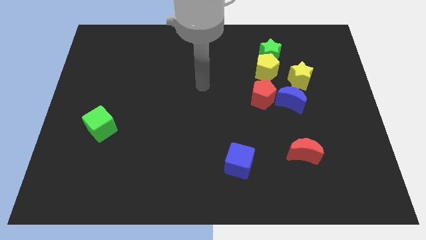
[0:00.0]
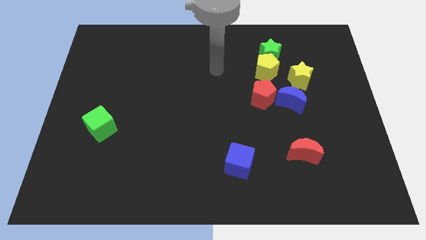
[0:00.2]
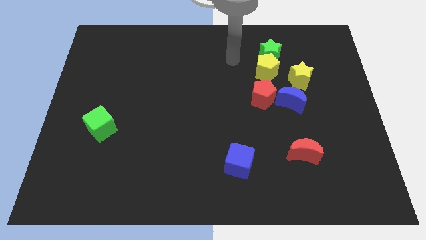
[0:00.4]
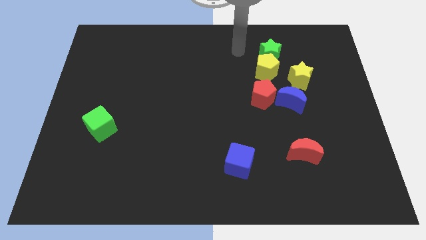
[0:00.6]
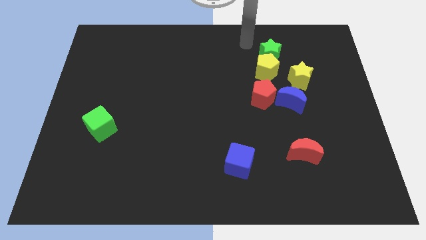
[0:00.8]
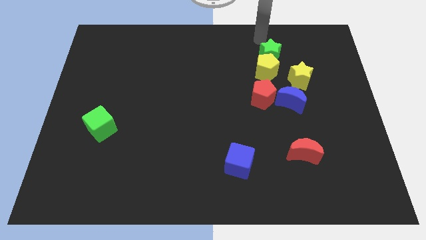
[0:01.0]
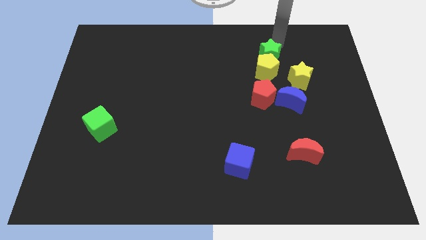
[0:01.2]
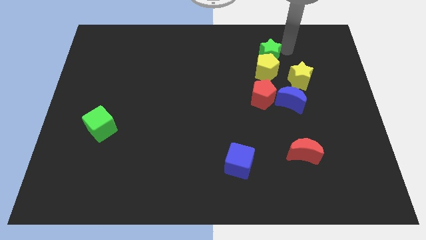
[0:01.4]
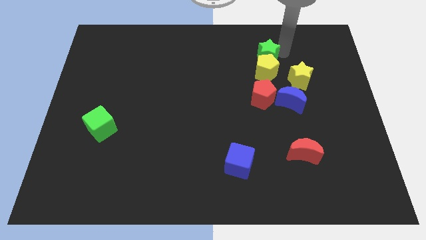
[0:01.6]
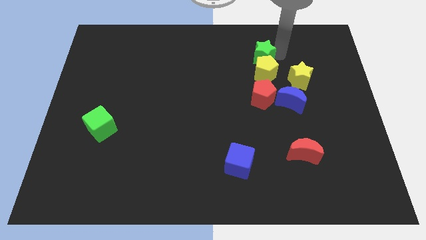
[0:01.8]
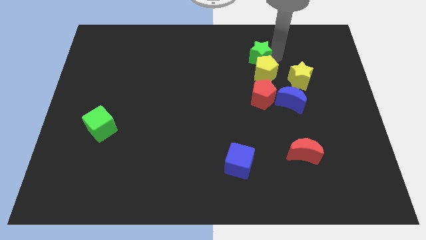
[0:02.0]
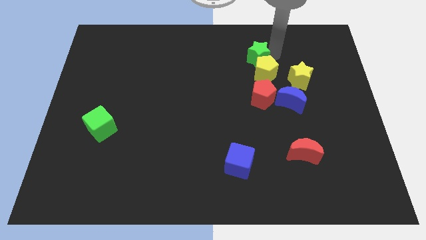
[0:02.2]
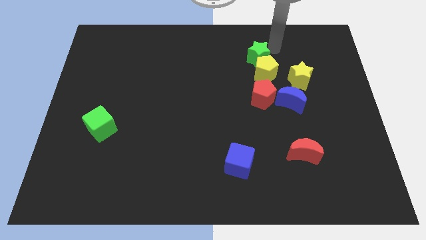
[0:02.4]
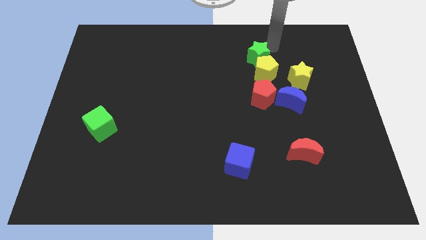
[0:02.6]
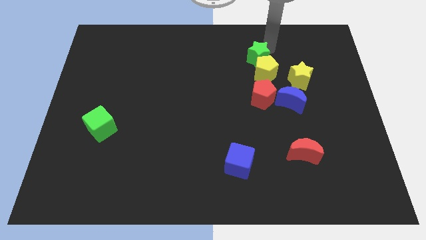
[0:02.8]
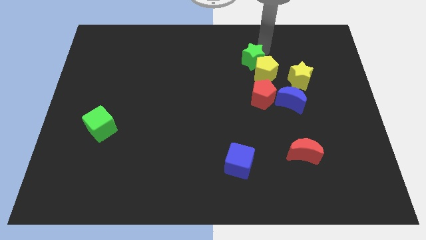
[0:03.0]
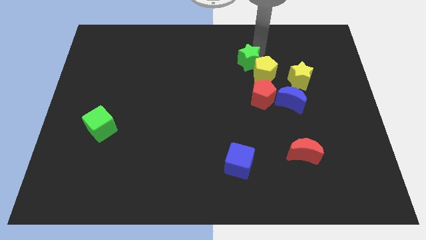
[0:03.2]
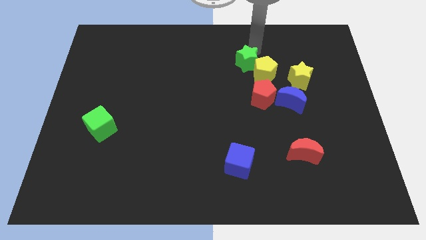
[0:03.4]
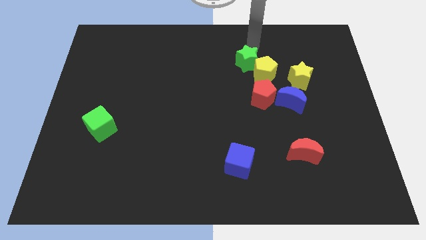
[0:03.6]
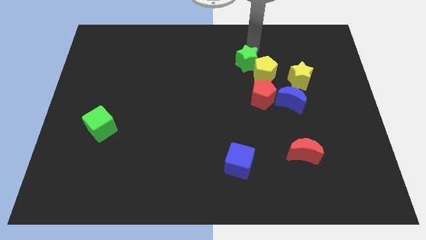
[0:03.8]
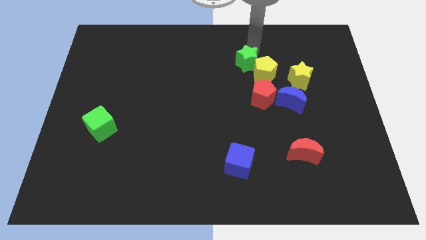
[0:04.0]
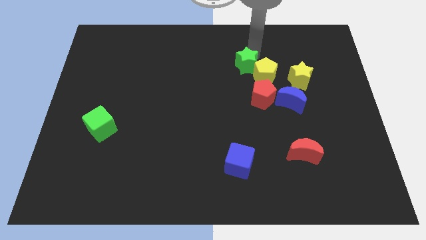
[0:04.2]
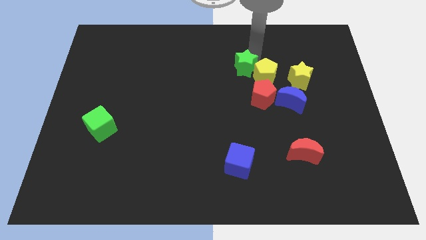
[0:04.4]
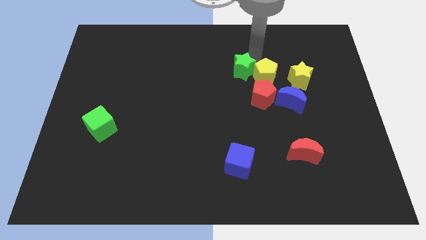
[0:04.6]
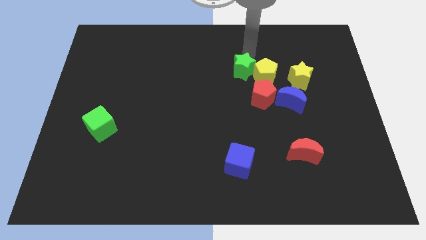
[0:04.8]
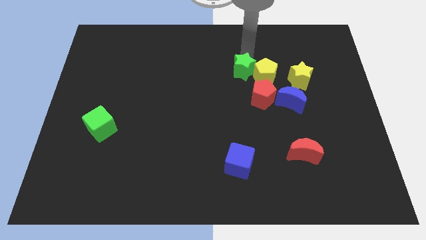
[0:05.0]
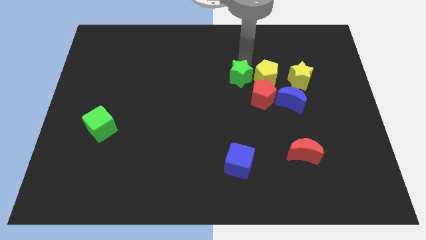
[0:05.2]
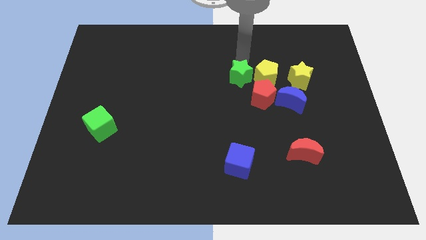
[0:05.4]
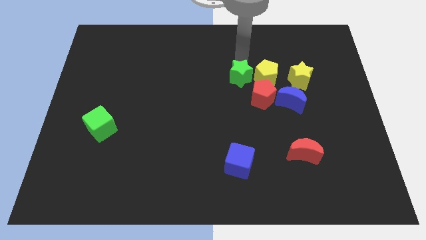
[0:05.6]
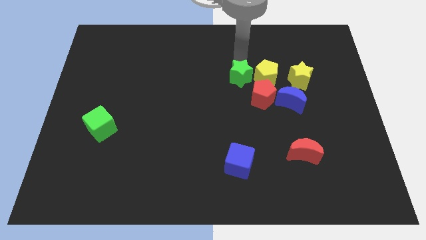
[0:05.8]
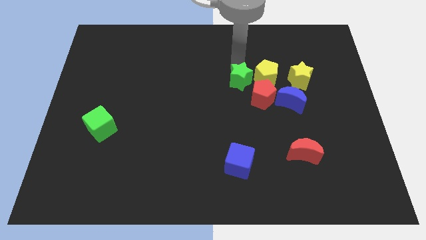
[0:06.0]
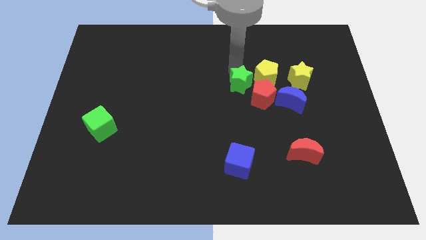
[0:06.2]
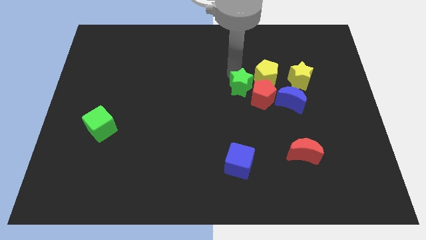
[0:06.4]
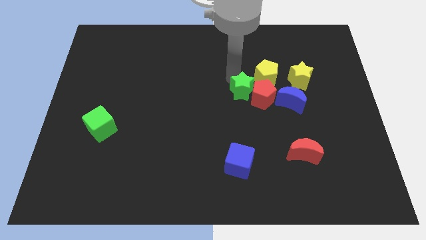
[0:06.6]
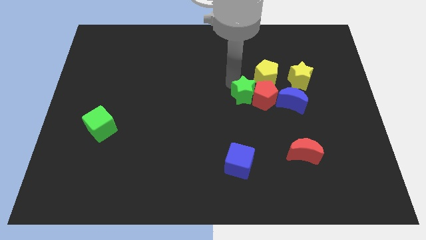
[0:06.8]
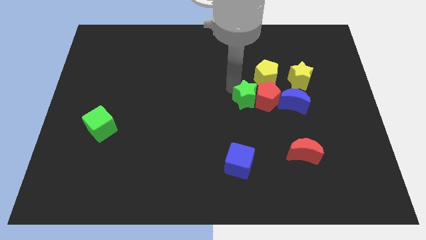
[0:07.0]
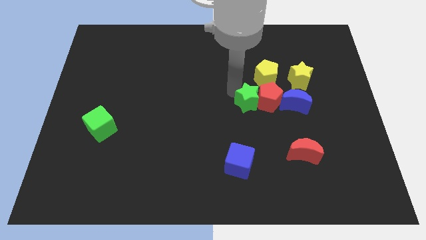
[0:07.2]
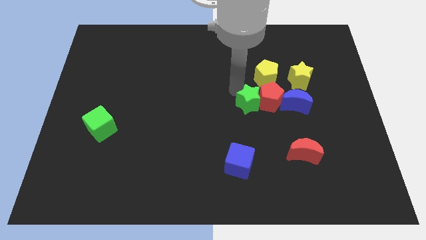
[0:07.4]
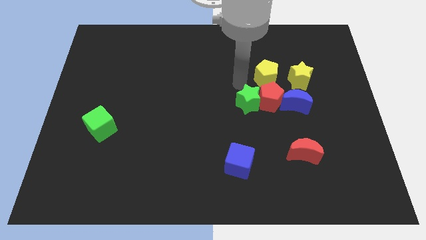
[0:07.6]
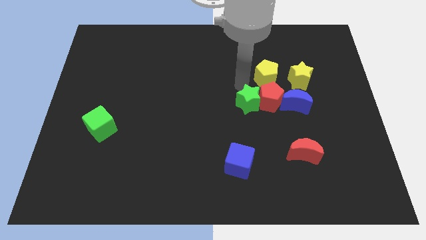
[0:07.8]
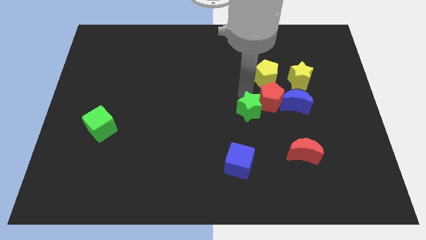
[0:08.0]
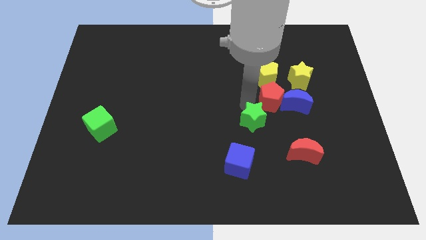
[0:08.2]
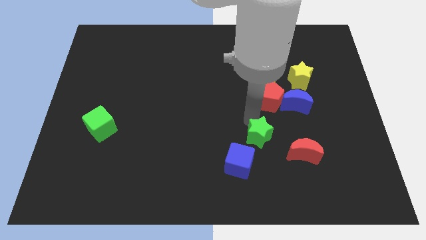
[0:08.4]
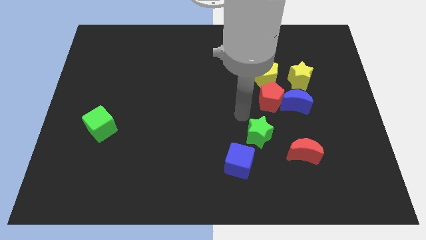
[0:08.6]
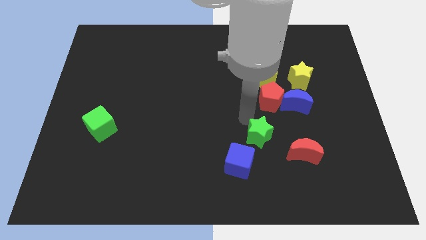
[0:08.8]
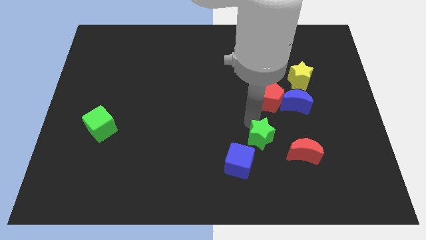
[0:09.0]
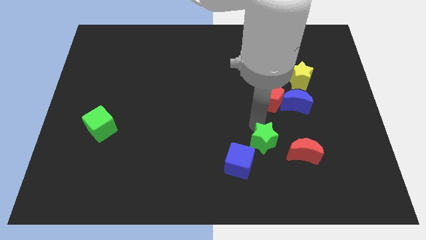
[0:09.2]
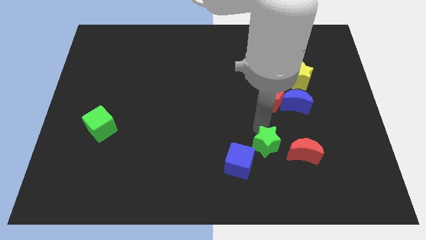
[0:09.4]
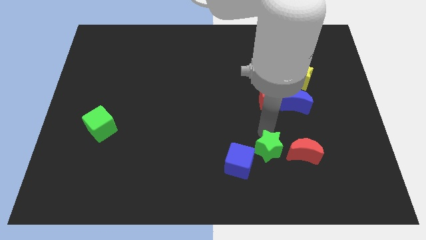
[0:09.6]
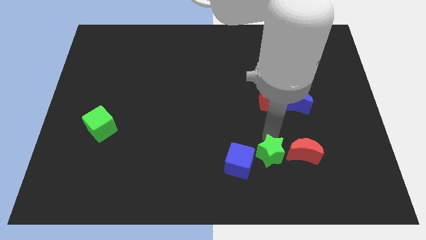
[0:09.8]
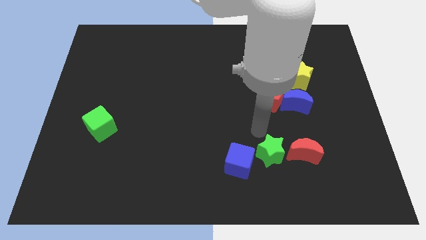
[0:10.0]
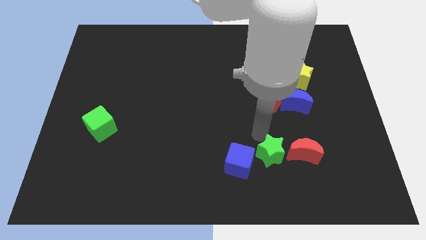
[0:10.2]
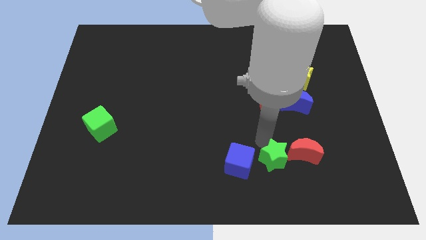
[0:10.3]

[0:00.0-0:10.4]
move the green star to the bottom left of the red moon

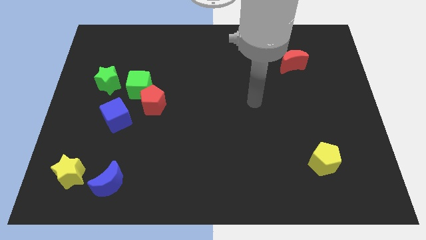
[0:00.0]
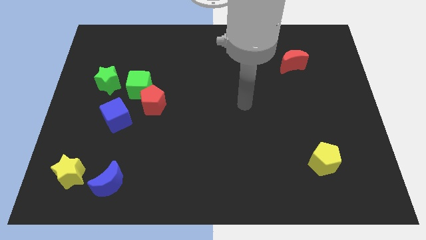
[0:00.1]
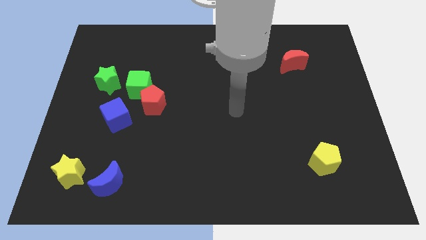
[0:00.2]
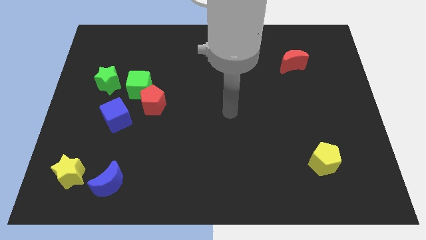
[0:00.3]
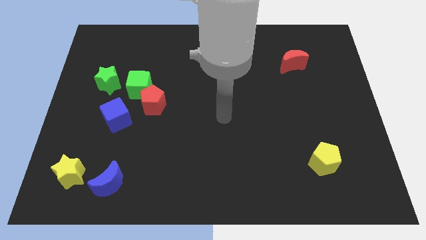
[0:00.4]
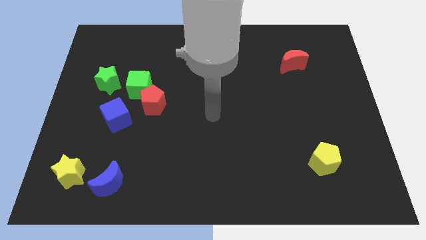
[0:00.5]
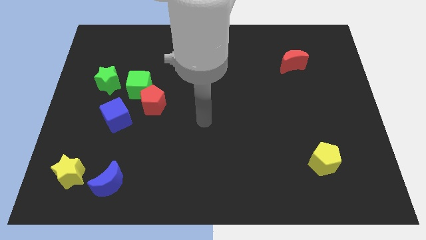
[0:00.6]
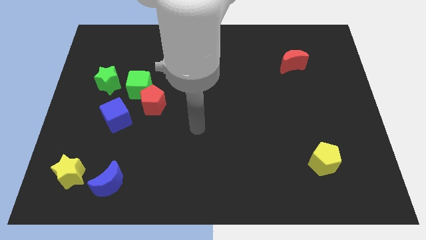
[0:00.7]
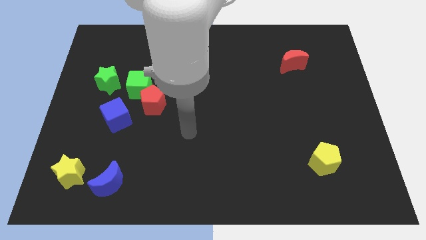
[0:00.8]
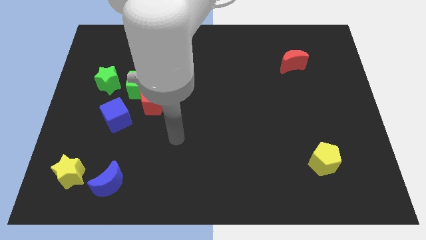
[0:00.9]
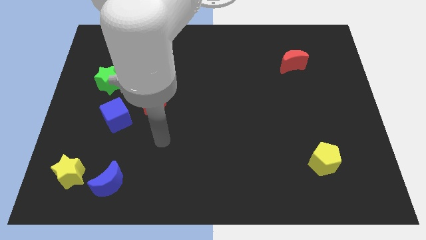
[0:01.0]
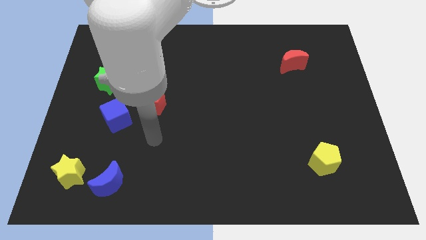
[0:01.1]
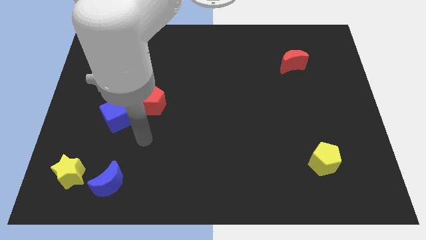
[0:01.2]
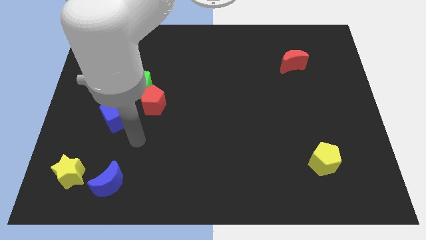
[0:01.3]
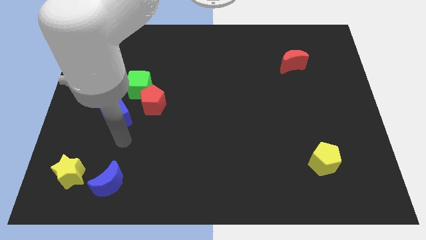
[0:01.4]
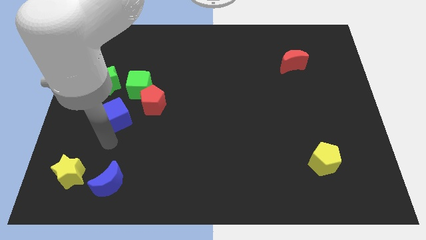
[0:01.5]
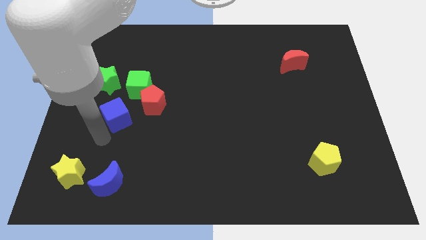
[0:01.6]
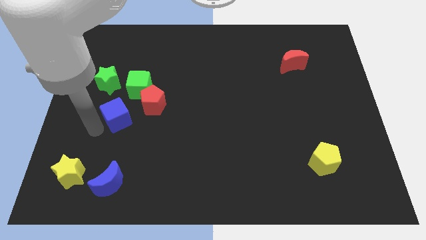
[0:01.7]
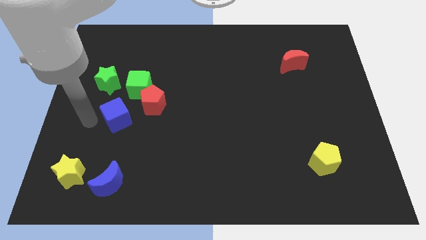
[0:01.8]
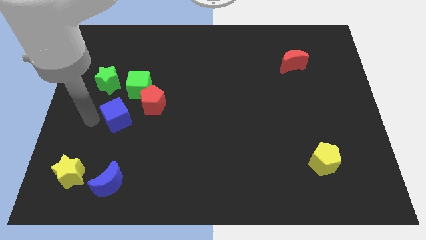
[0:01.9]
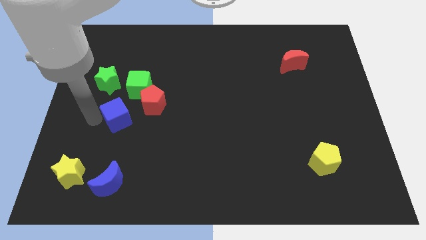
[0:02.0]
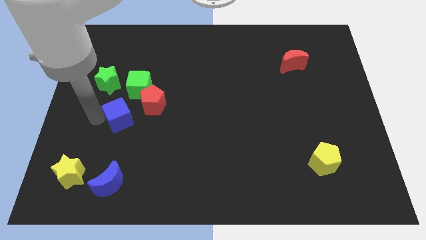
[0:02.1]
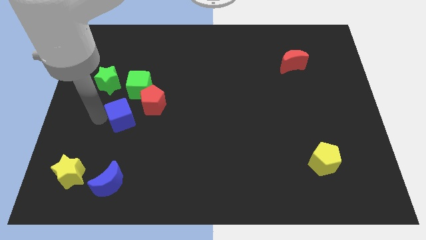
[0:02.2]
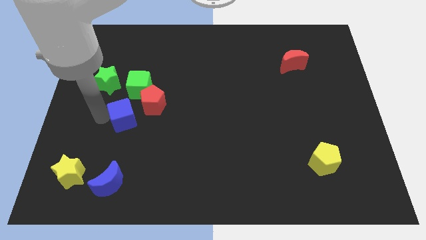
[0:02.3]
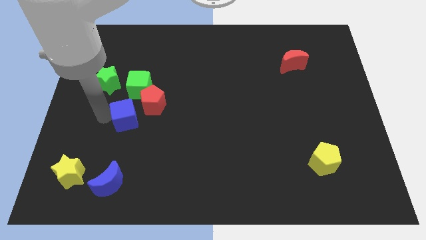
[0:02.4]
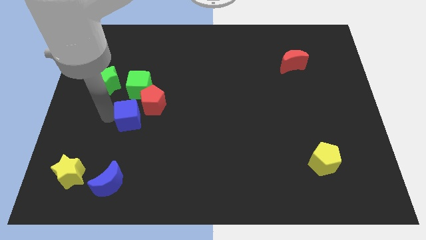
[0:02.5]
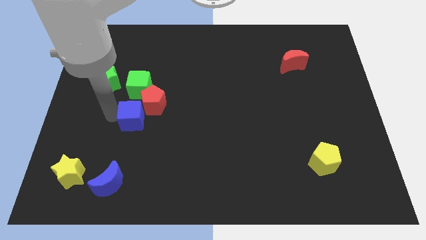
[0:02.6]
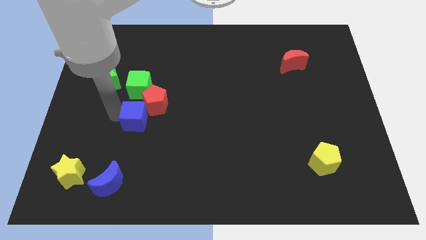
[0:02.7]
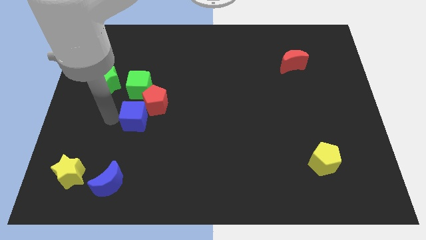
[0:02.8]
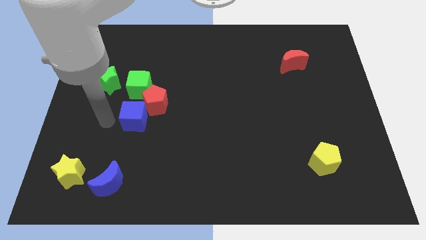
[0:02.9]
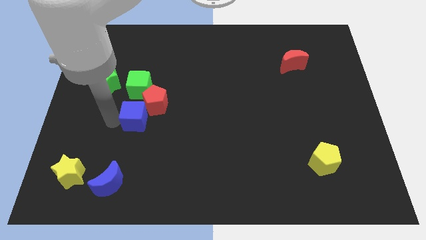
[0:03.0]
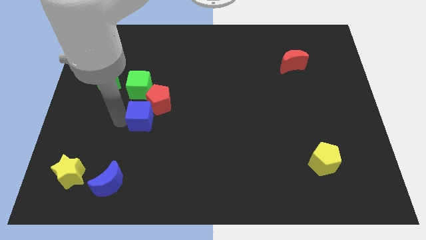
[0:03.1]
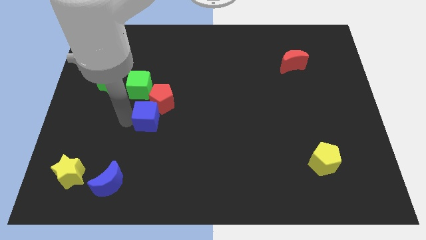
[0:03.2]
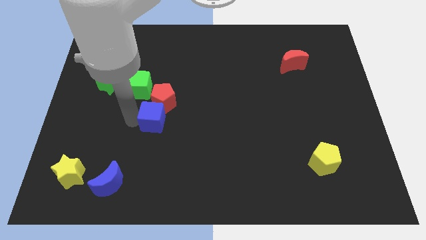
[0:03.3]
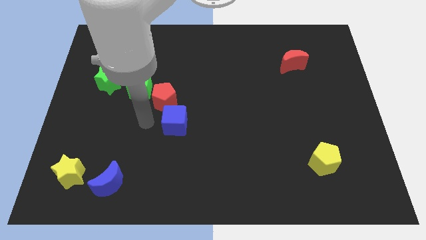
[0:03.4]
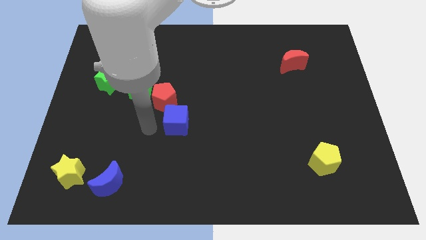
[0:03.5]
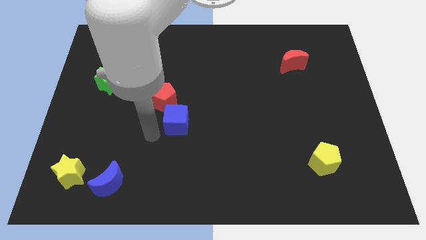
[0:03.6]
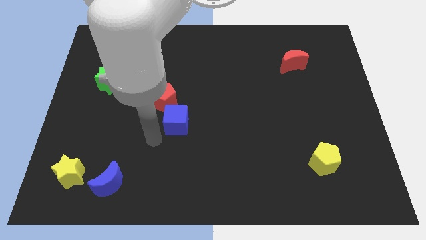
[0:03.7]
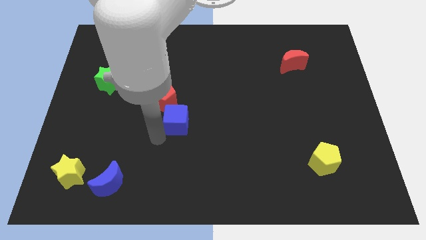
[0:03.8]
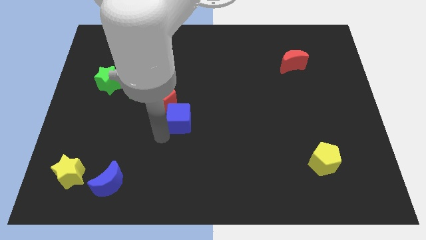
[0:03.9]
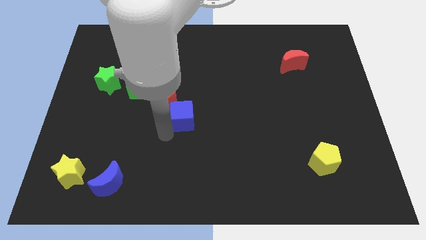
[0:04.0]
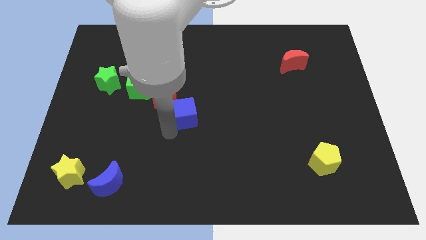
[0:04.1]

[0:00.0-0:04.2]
put the blue cube to the right side of the red pentagon
